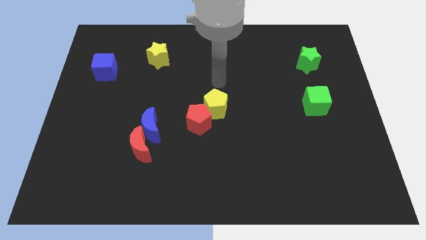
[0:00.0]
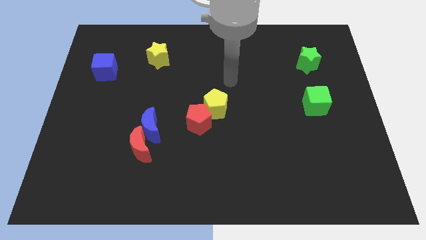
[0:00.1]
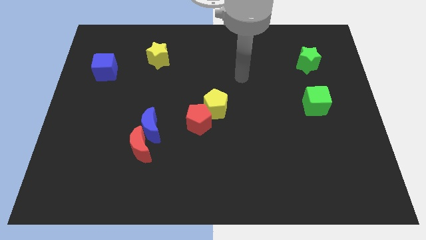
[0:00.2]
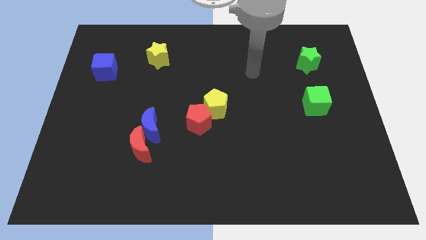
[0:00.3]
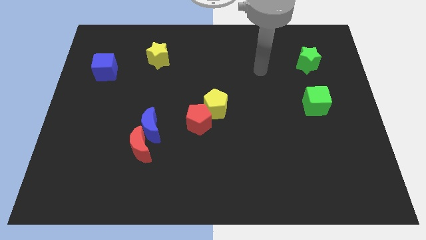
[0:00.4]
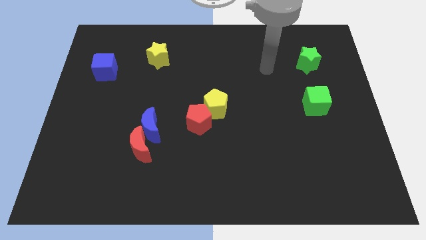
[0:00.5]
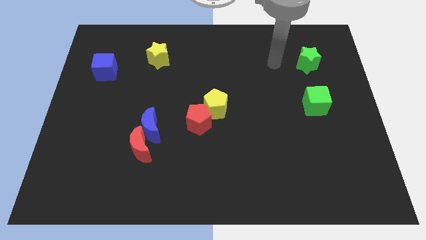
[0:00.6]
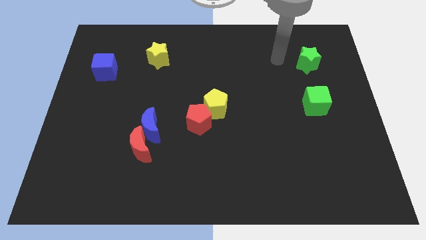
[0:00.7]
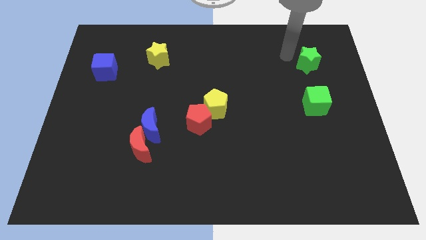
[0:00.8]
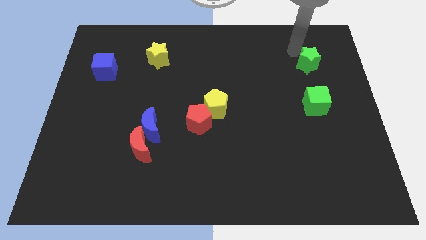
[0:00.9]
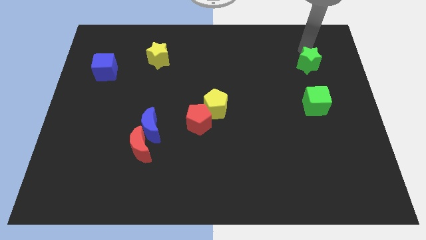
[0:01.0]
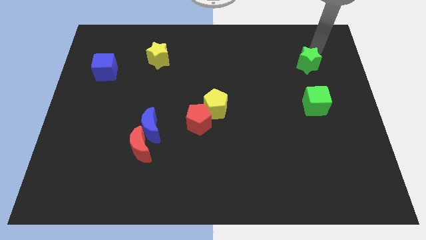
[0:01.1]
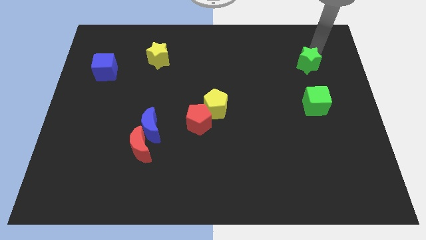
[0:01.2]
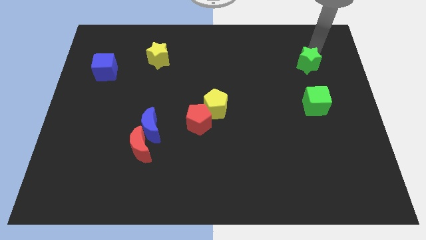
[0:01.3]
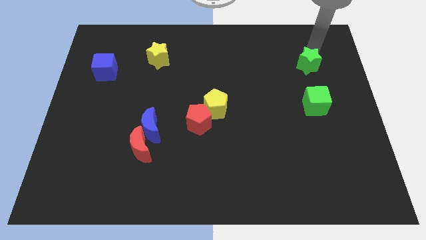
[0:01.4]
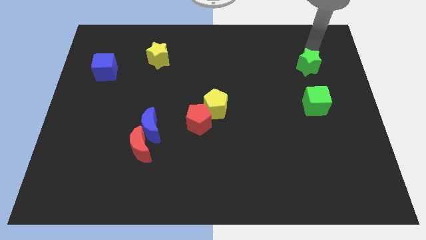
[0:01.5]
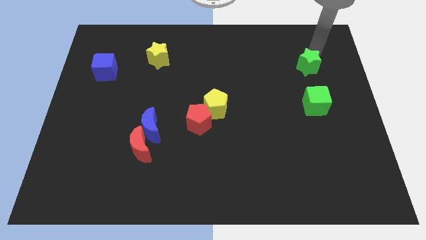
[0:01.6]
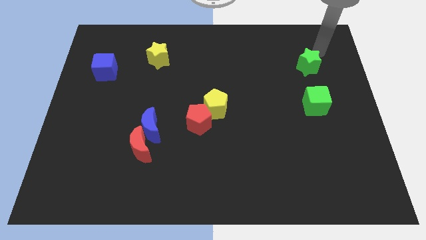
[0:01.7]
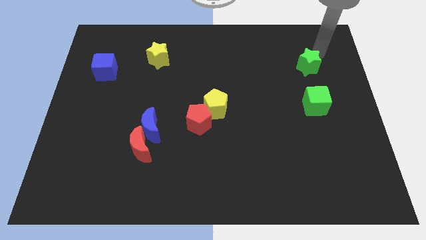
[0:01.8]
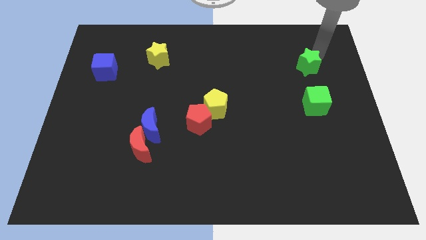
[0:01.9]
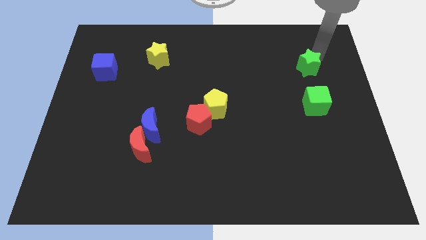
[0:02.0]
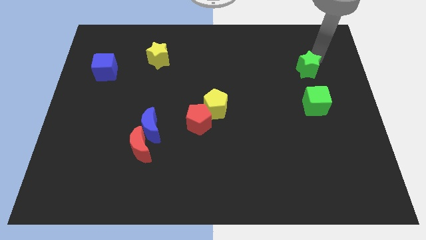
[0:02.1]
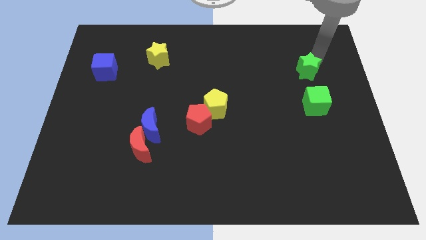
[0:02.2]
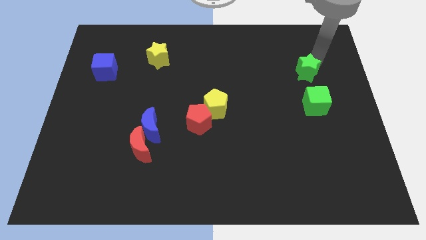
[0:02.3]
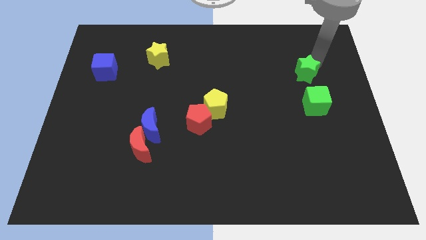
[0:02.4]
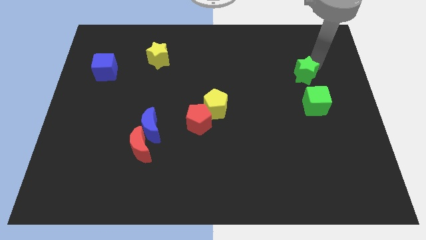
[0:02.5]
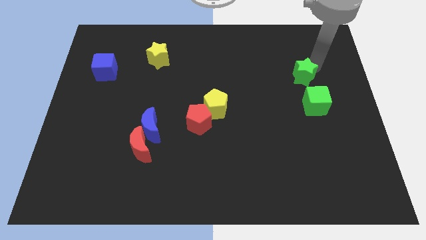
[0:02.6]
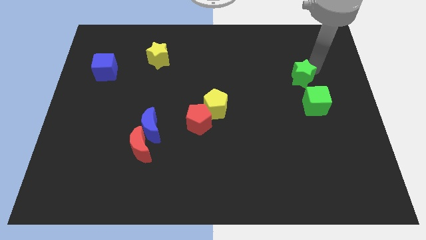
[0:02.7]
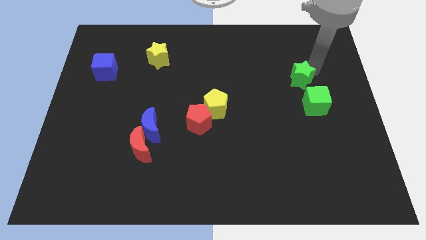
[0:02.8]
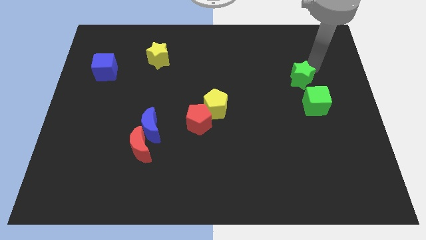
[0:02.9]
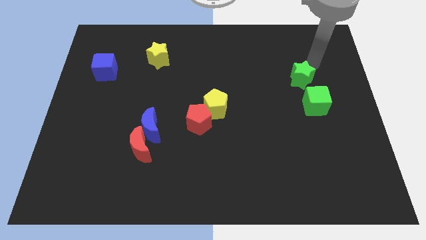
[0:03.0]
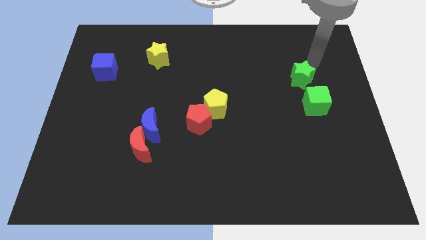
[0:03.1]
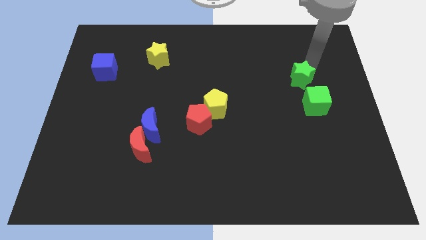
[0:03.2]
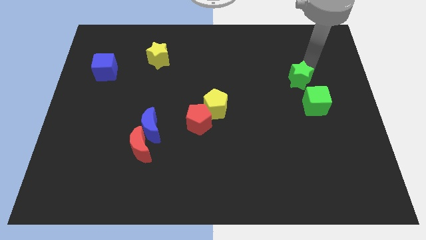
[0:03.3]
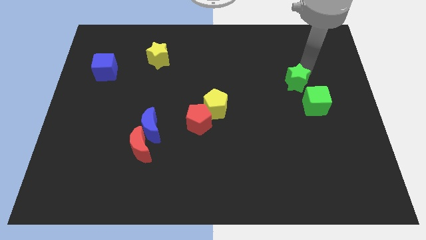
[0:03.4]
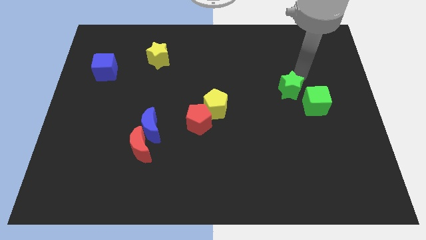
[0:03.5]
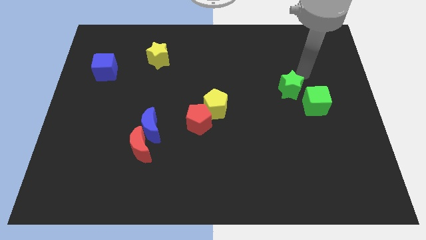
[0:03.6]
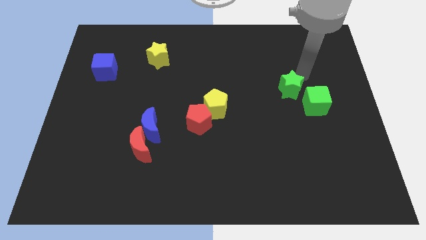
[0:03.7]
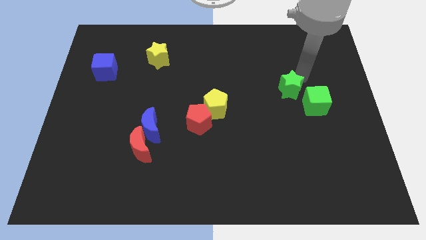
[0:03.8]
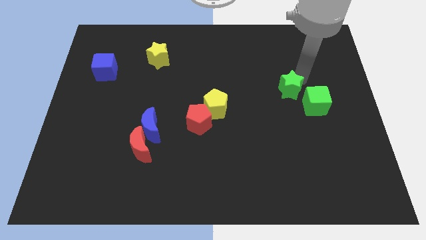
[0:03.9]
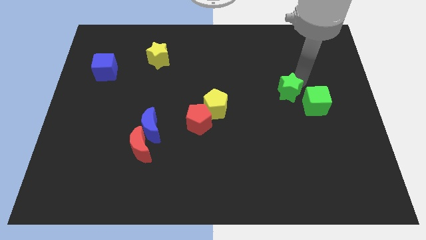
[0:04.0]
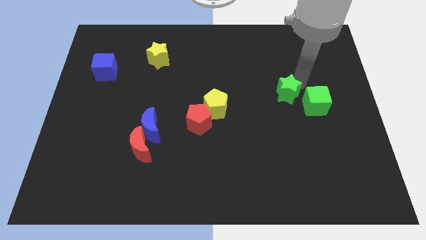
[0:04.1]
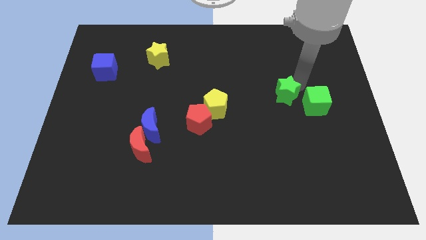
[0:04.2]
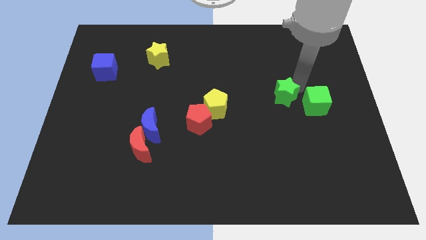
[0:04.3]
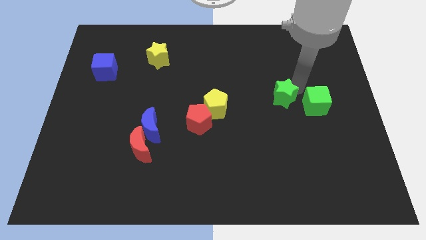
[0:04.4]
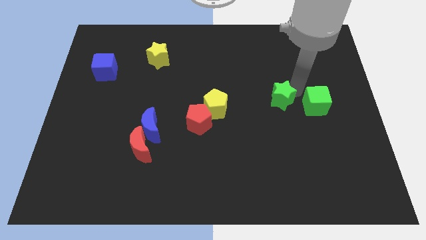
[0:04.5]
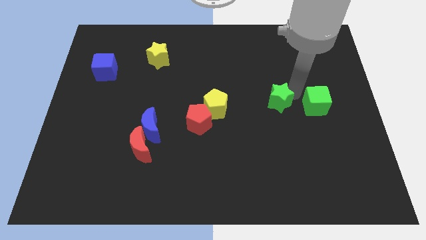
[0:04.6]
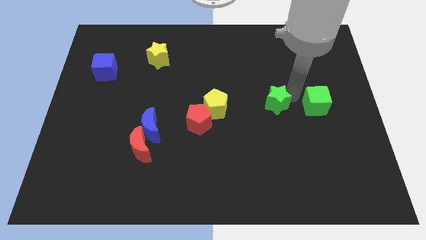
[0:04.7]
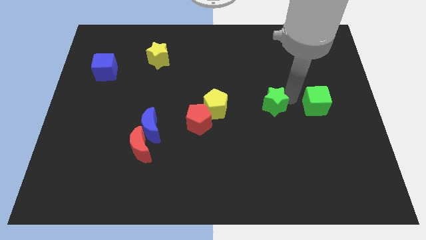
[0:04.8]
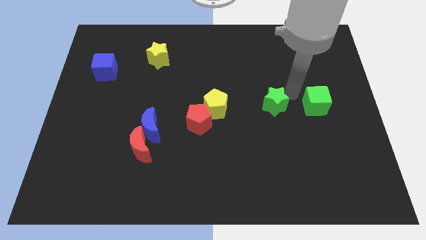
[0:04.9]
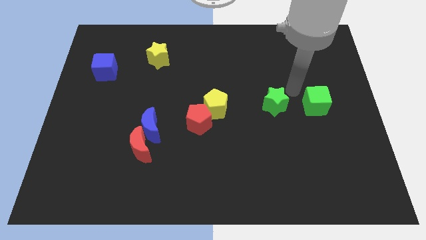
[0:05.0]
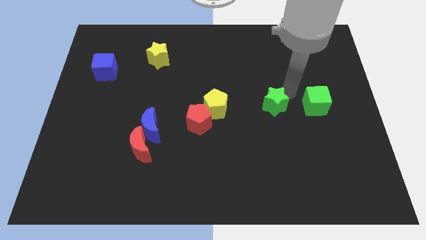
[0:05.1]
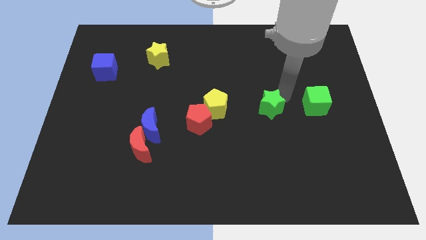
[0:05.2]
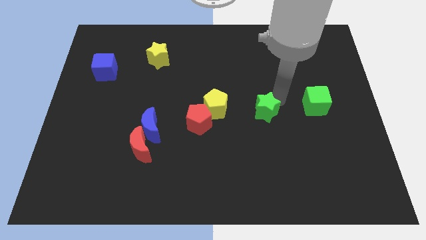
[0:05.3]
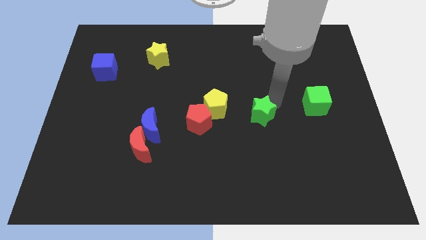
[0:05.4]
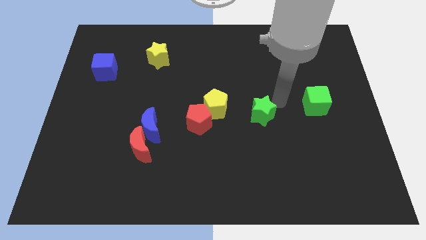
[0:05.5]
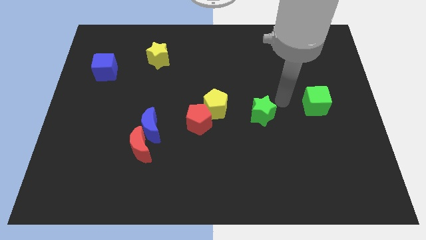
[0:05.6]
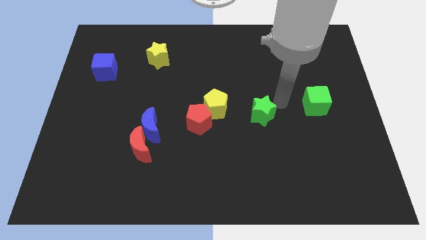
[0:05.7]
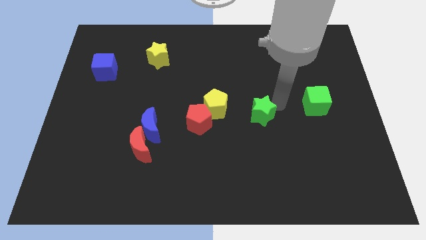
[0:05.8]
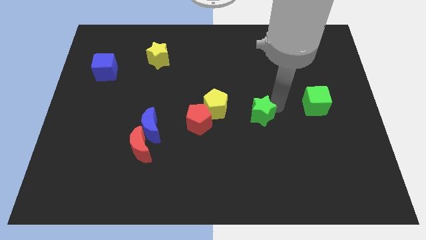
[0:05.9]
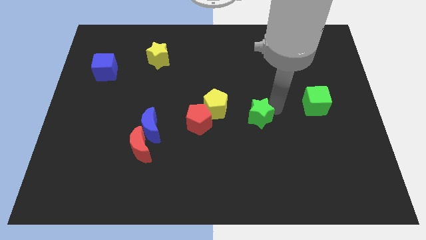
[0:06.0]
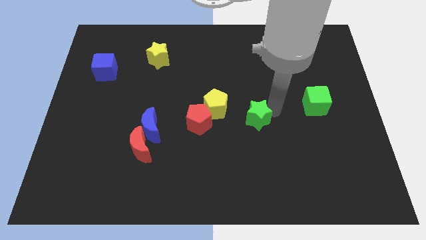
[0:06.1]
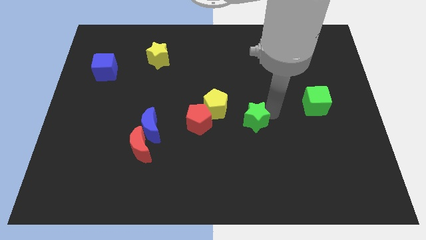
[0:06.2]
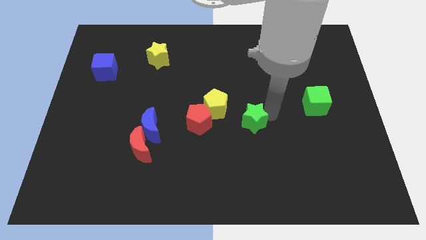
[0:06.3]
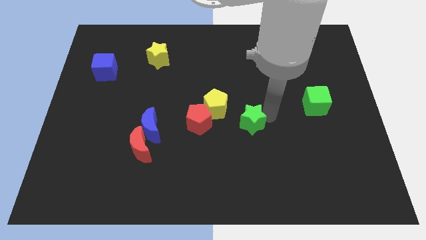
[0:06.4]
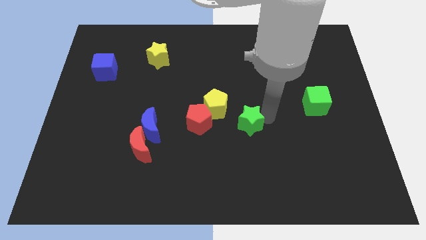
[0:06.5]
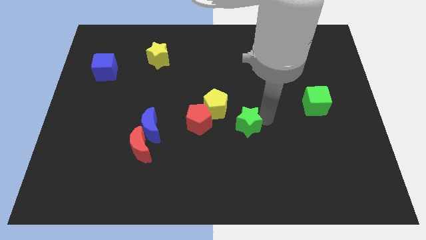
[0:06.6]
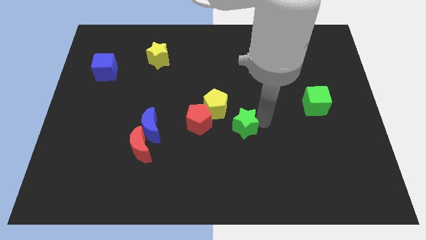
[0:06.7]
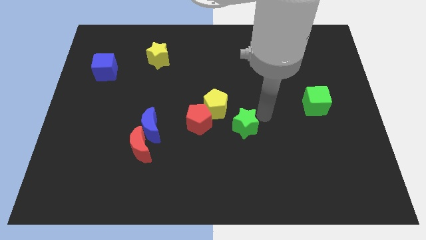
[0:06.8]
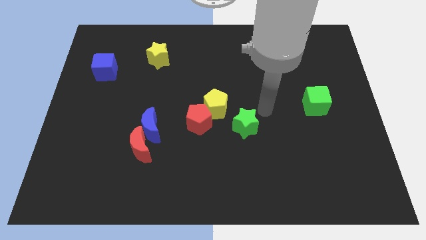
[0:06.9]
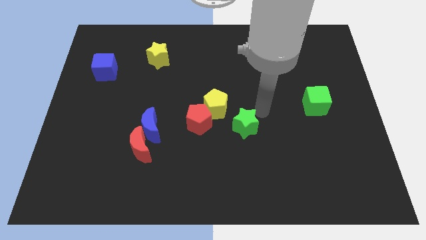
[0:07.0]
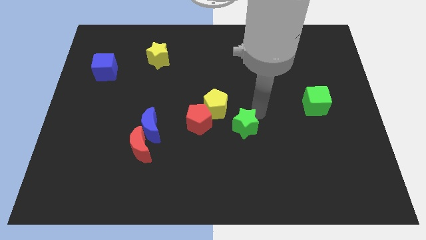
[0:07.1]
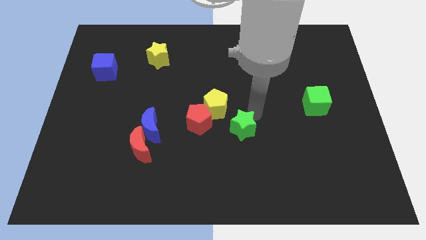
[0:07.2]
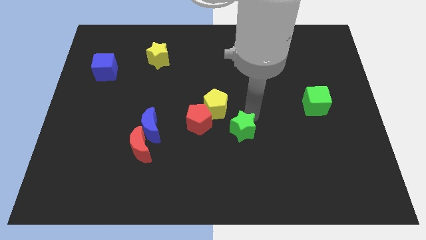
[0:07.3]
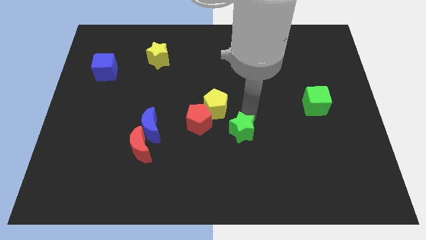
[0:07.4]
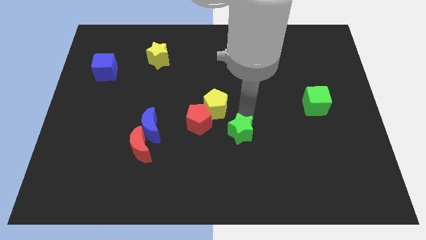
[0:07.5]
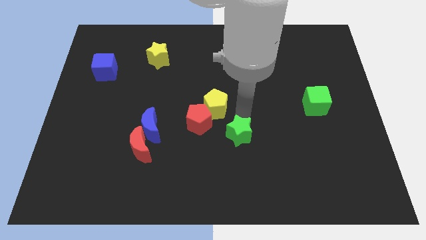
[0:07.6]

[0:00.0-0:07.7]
move the green star to the bottom of the yellow pentagon
